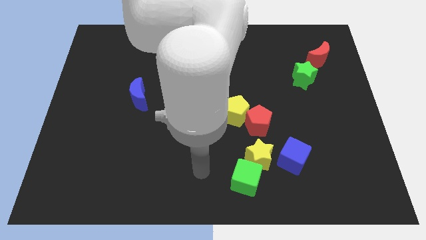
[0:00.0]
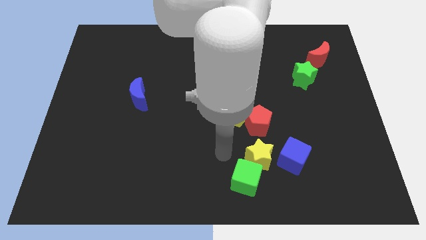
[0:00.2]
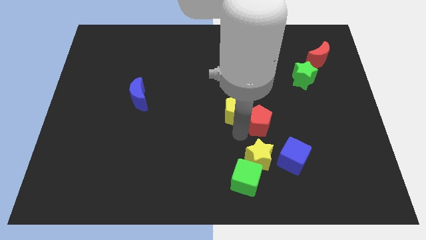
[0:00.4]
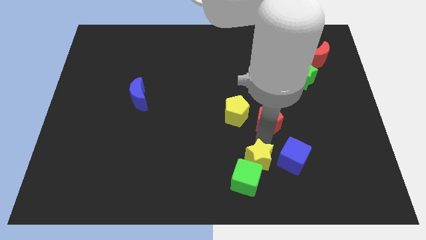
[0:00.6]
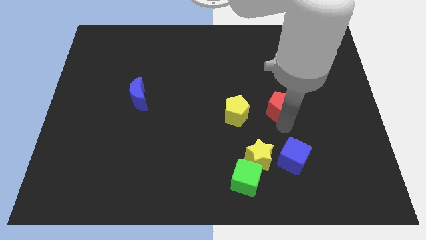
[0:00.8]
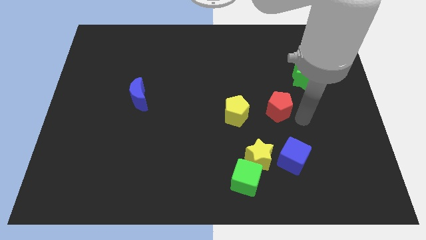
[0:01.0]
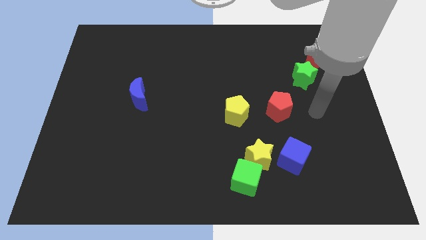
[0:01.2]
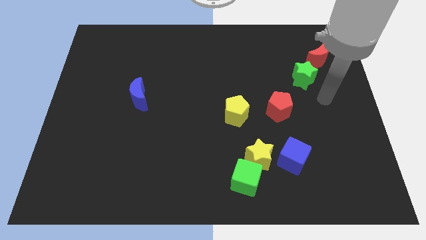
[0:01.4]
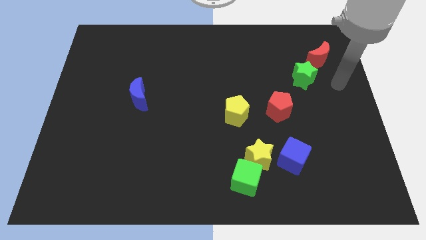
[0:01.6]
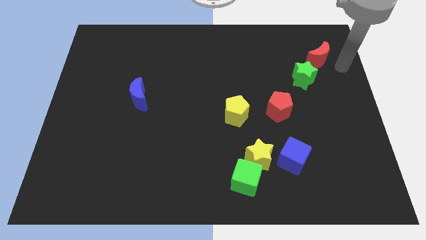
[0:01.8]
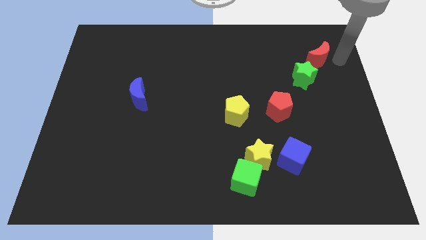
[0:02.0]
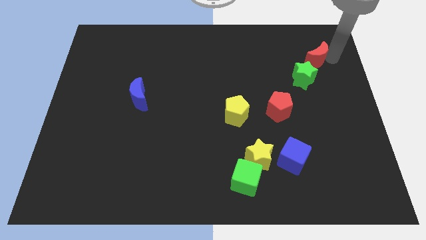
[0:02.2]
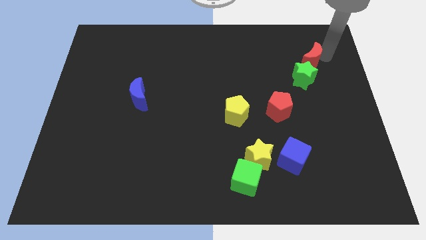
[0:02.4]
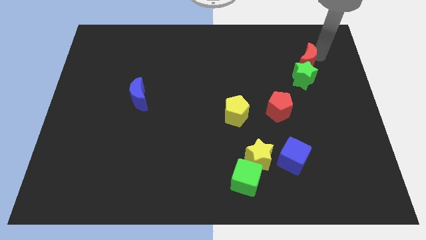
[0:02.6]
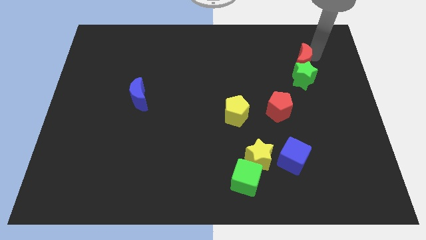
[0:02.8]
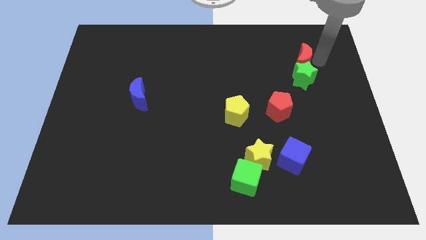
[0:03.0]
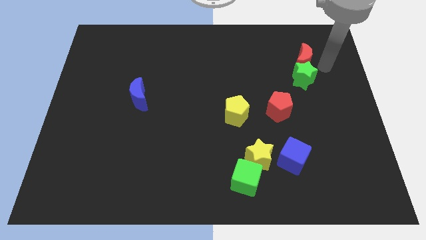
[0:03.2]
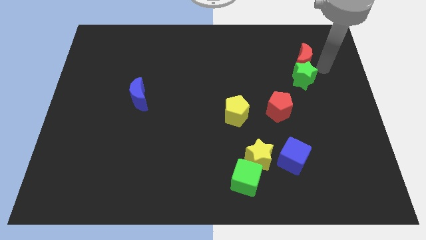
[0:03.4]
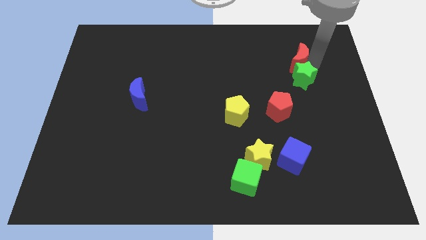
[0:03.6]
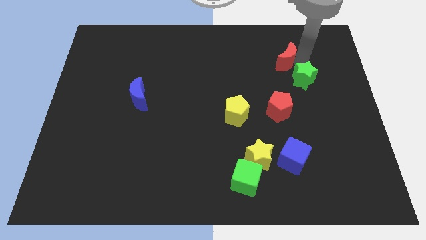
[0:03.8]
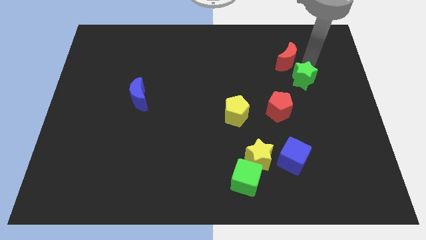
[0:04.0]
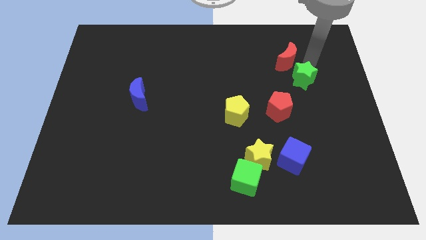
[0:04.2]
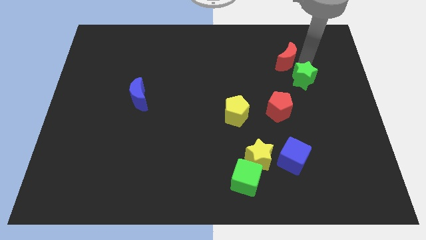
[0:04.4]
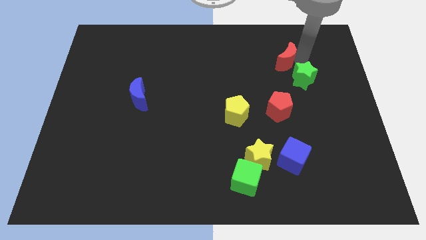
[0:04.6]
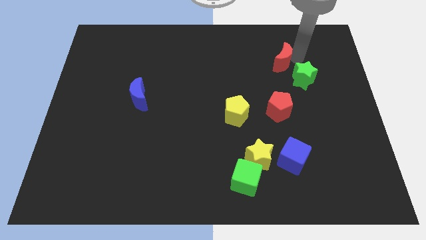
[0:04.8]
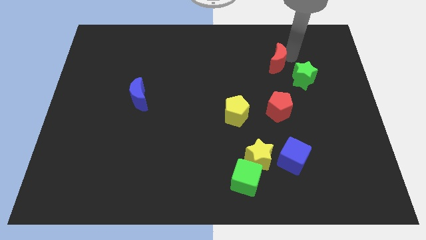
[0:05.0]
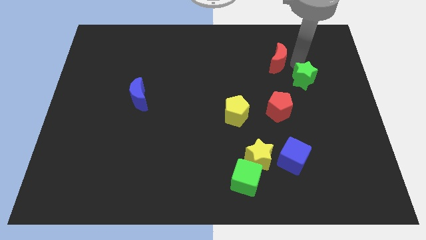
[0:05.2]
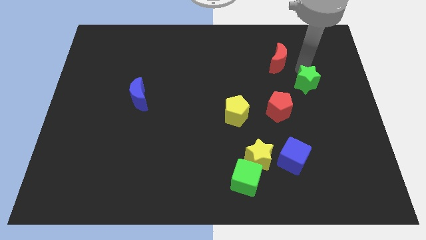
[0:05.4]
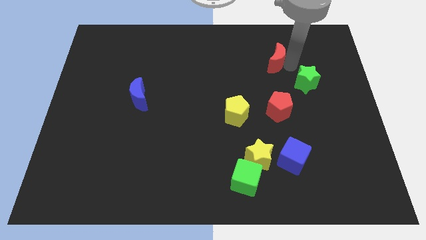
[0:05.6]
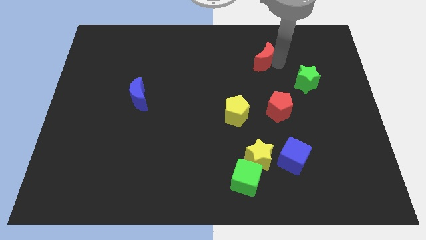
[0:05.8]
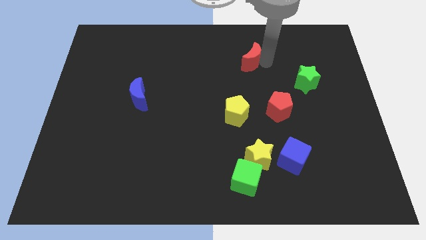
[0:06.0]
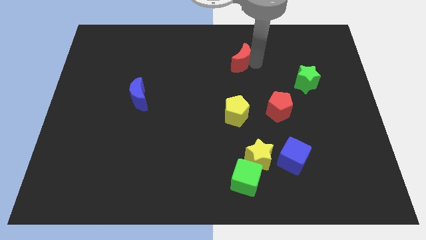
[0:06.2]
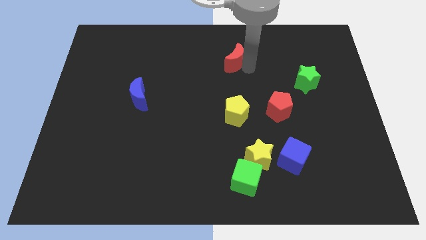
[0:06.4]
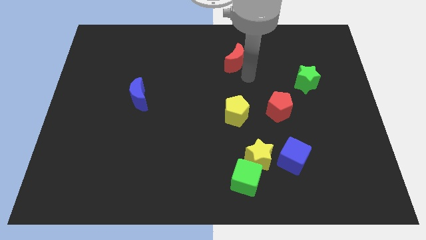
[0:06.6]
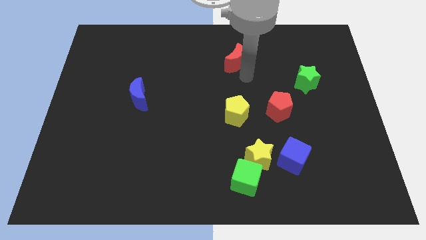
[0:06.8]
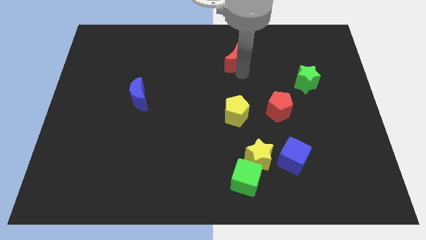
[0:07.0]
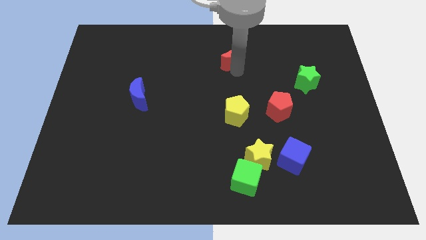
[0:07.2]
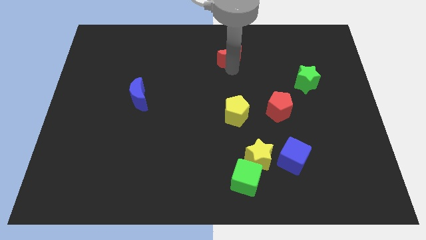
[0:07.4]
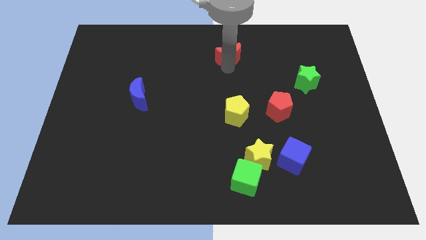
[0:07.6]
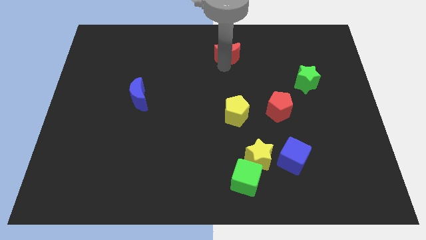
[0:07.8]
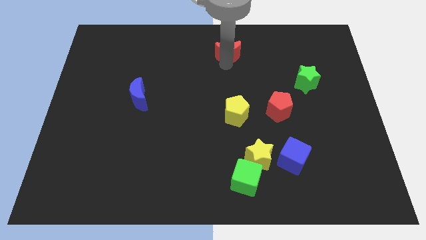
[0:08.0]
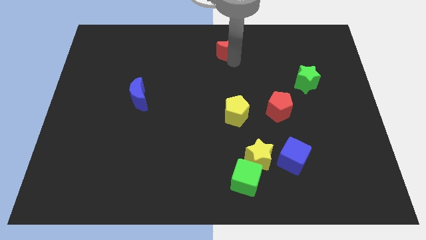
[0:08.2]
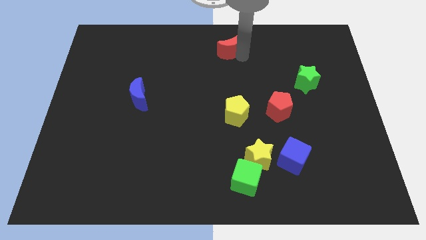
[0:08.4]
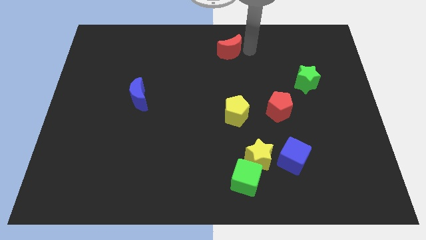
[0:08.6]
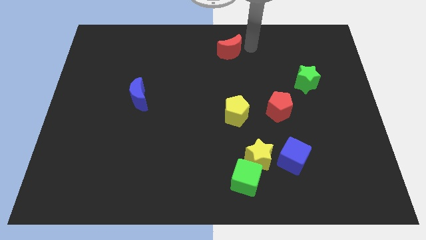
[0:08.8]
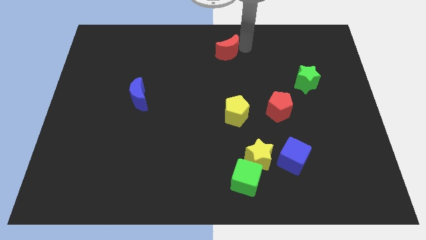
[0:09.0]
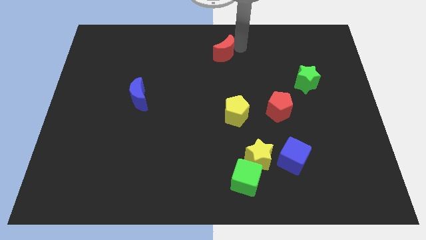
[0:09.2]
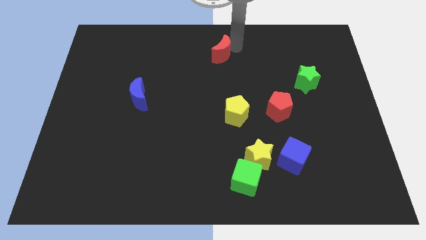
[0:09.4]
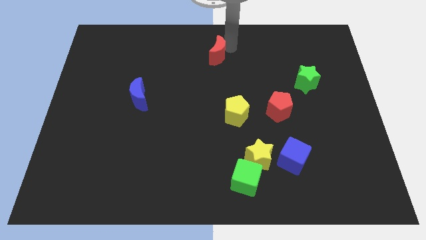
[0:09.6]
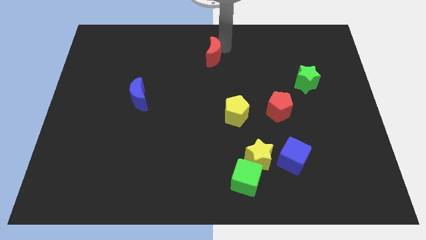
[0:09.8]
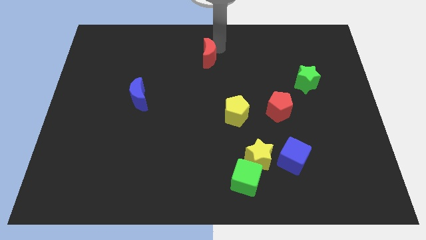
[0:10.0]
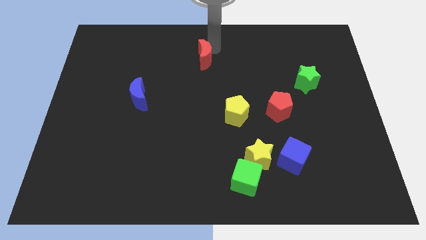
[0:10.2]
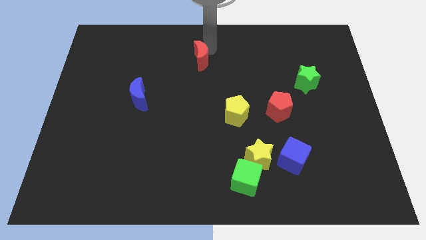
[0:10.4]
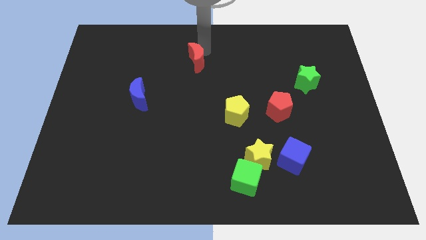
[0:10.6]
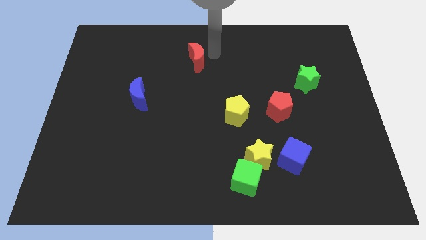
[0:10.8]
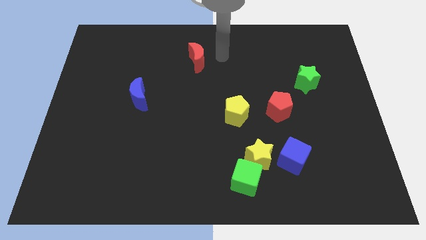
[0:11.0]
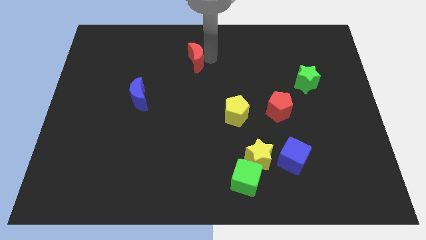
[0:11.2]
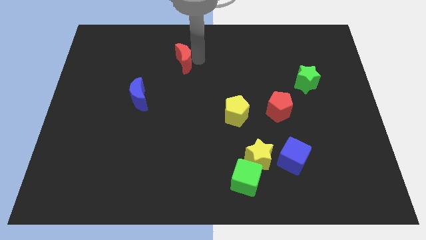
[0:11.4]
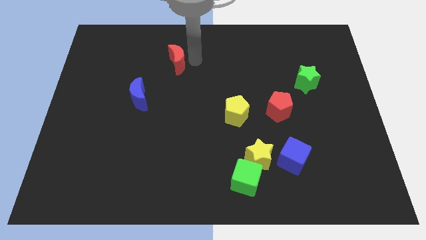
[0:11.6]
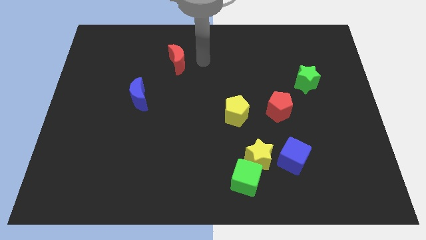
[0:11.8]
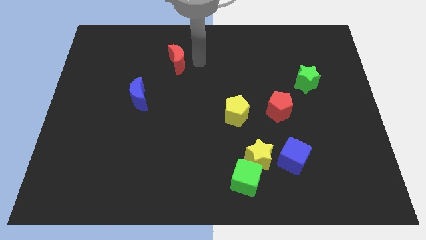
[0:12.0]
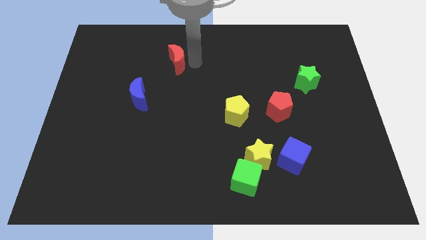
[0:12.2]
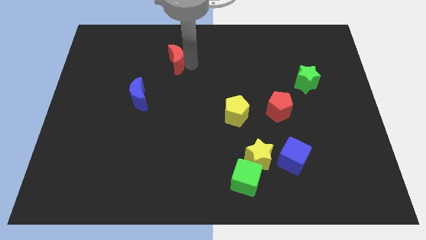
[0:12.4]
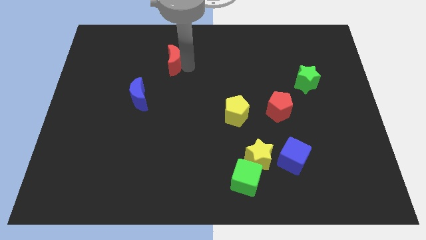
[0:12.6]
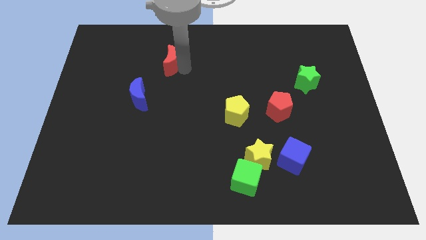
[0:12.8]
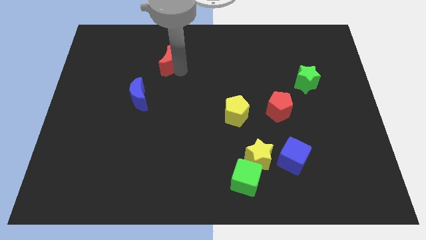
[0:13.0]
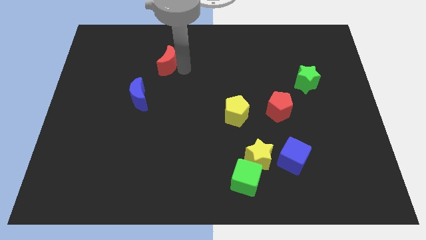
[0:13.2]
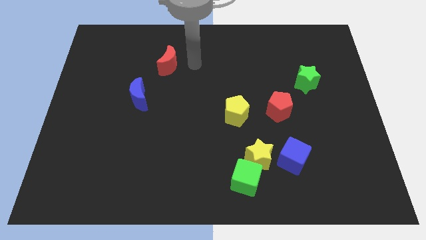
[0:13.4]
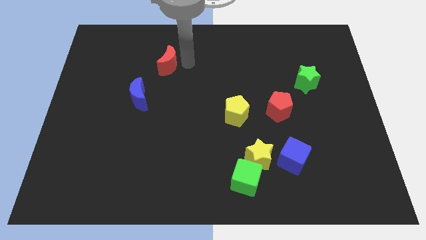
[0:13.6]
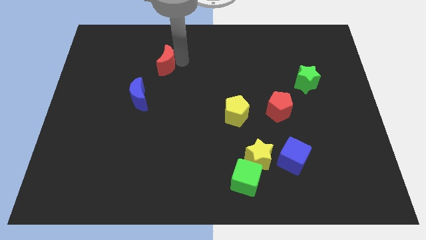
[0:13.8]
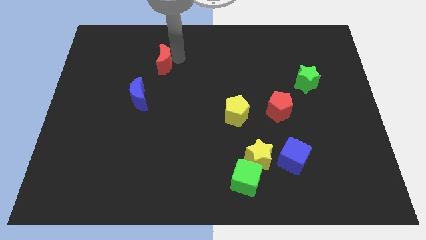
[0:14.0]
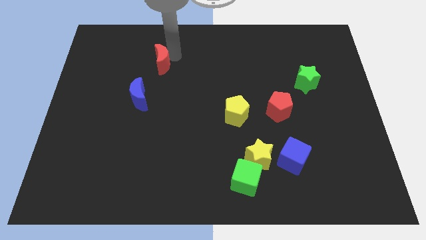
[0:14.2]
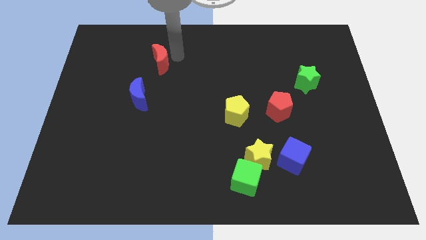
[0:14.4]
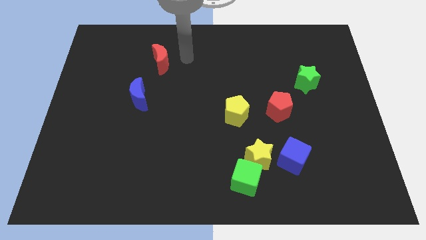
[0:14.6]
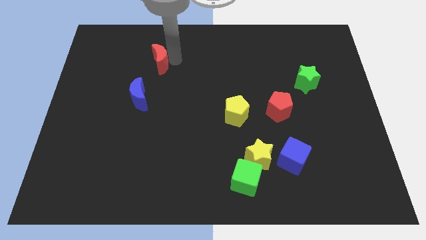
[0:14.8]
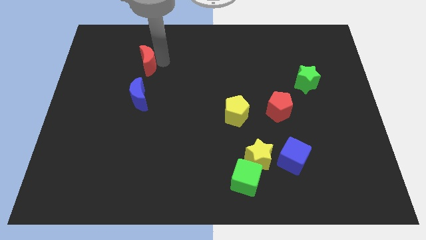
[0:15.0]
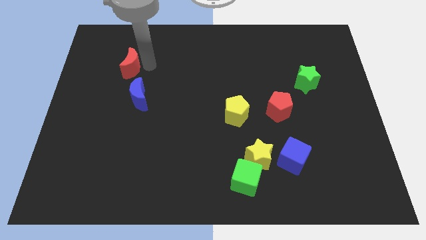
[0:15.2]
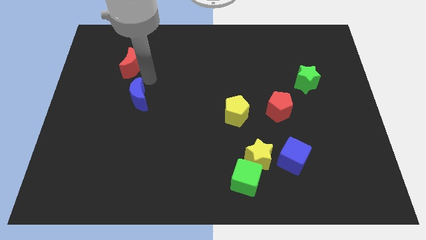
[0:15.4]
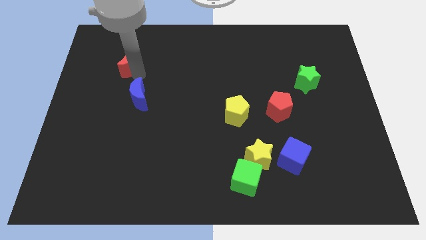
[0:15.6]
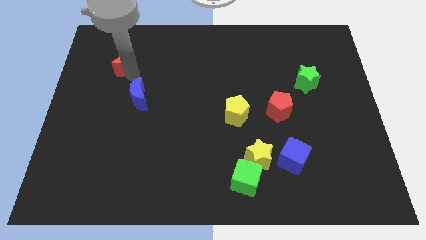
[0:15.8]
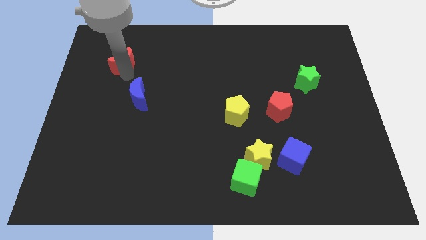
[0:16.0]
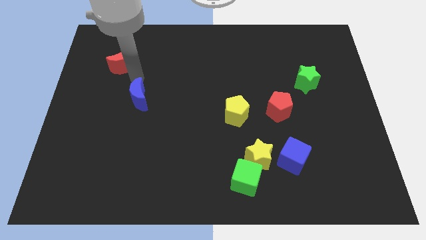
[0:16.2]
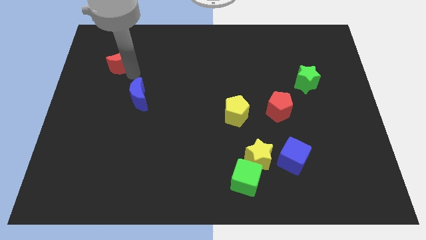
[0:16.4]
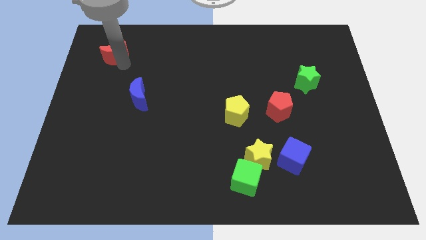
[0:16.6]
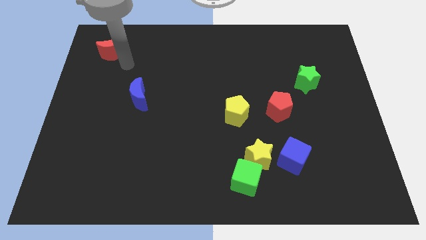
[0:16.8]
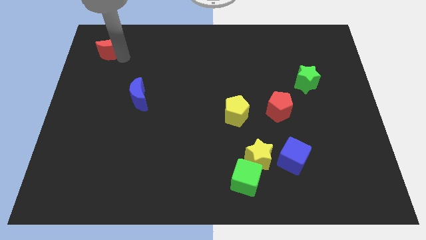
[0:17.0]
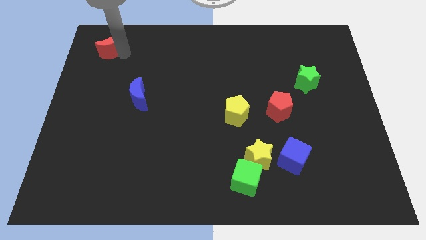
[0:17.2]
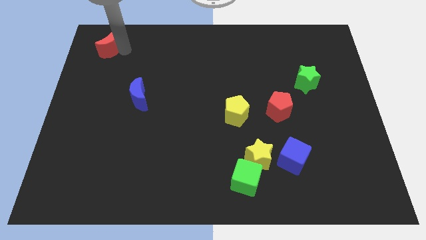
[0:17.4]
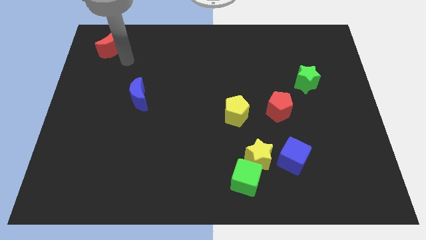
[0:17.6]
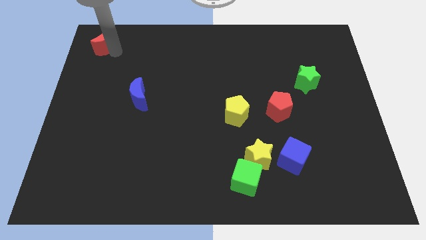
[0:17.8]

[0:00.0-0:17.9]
push the red moon to the top left of the board
